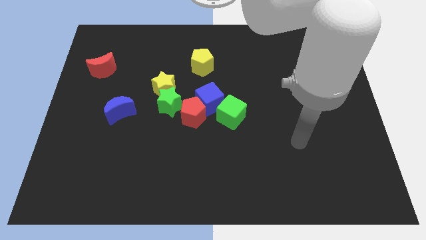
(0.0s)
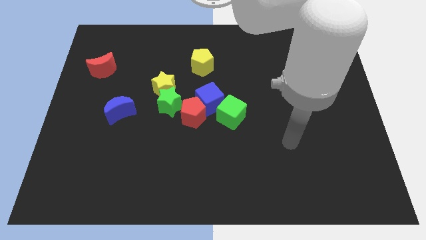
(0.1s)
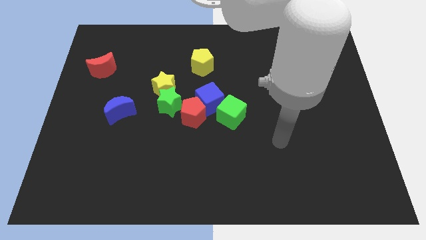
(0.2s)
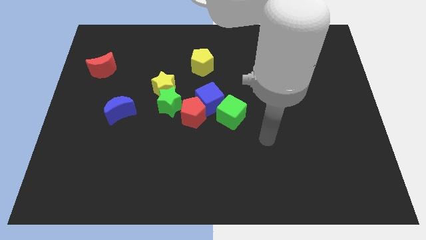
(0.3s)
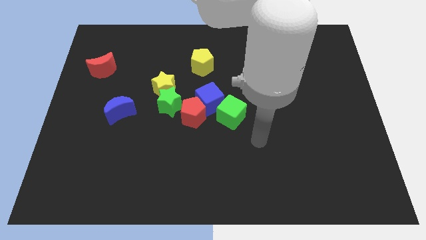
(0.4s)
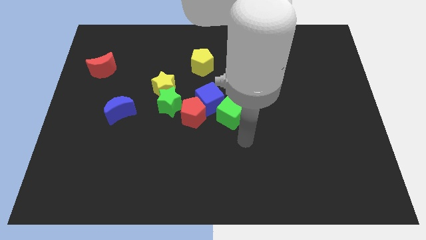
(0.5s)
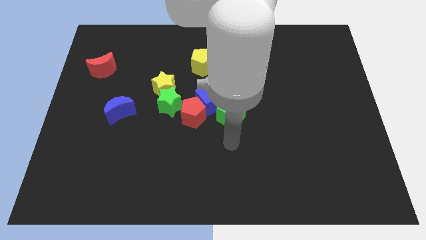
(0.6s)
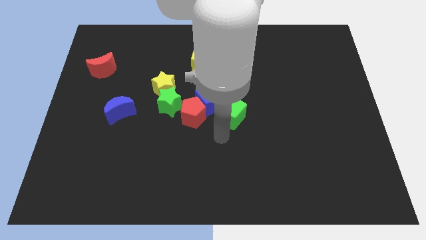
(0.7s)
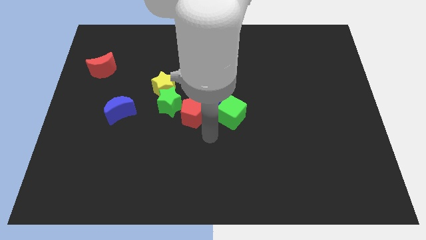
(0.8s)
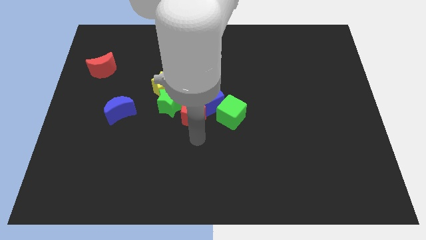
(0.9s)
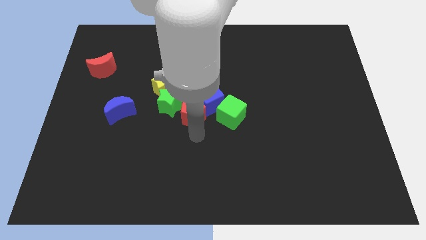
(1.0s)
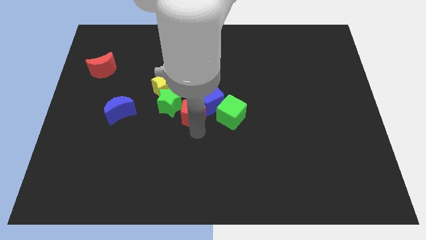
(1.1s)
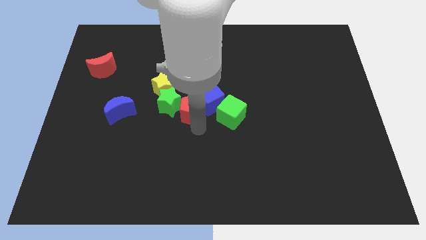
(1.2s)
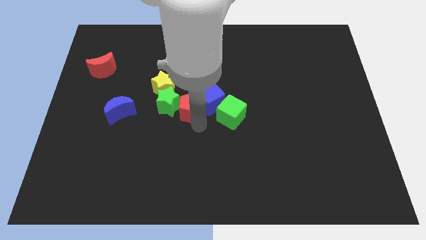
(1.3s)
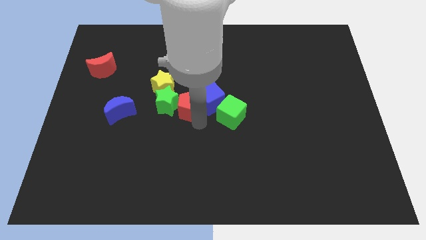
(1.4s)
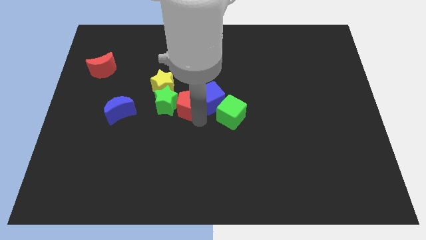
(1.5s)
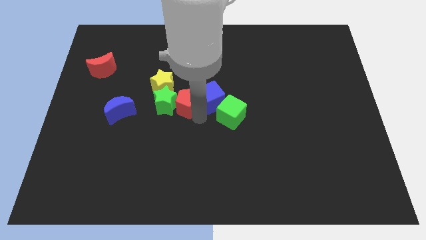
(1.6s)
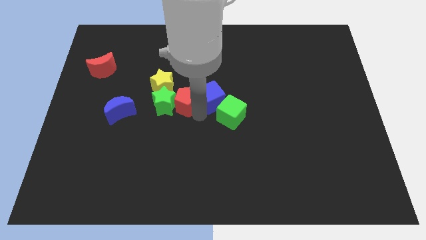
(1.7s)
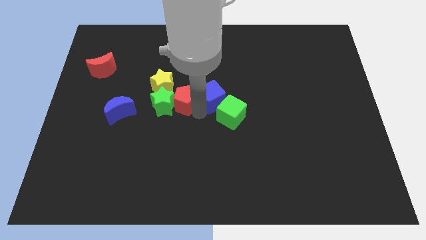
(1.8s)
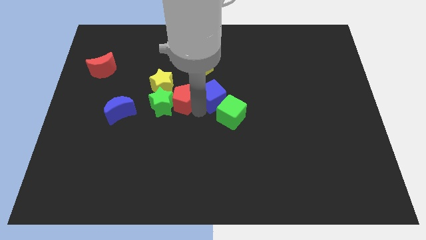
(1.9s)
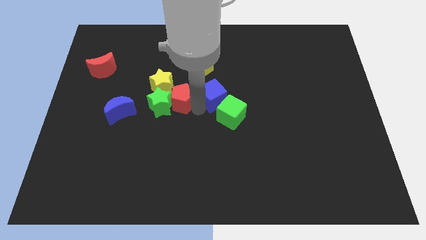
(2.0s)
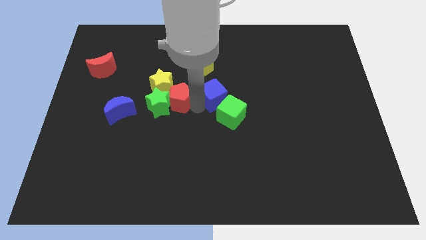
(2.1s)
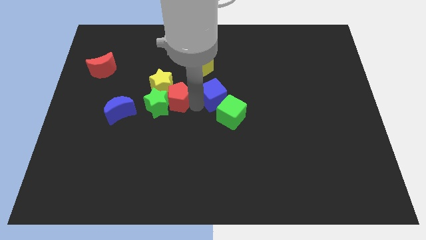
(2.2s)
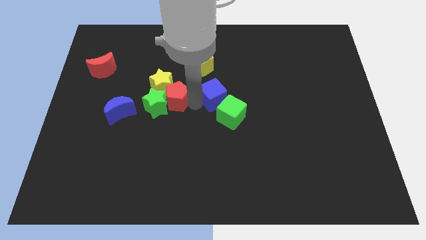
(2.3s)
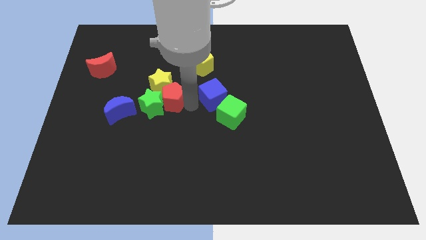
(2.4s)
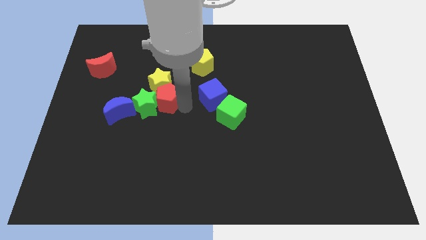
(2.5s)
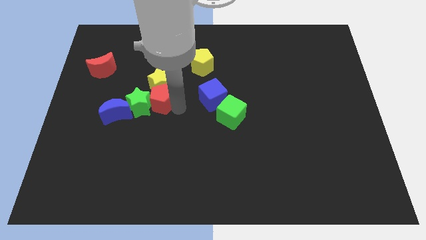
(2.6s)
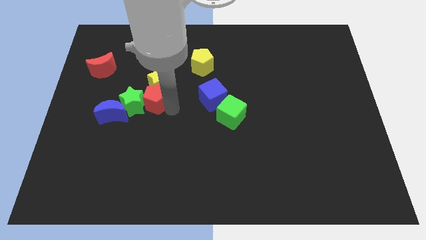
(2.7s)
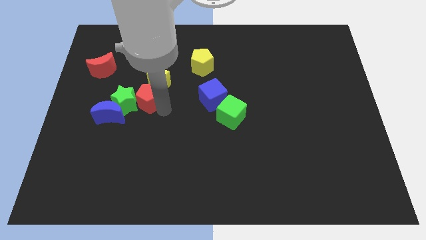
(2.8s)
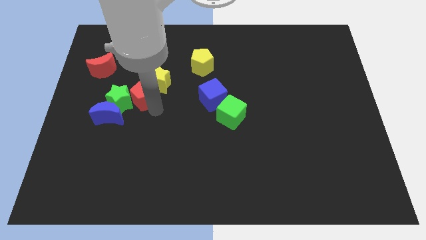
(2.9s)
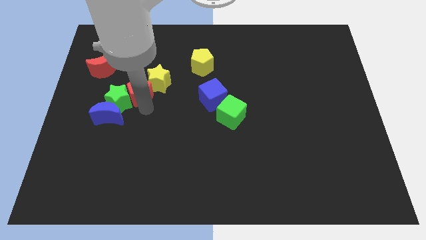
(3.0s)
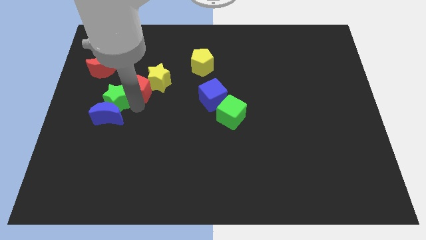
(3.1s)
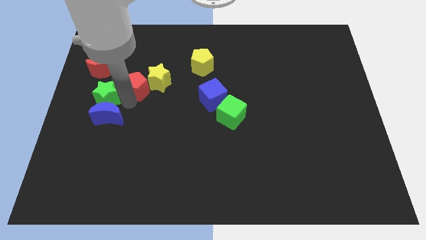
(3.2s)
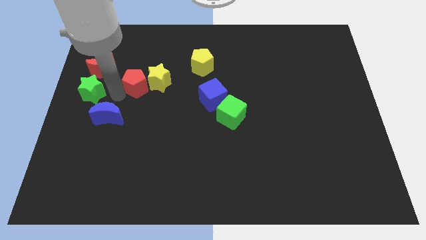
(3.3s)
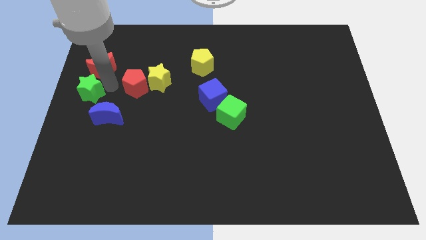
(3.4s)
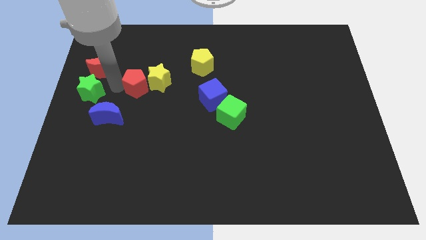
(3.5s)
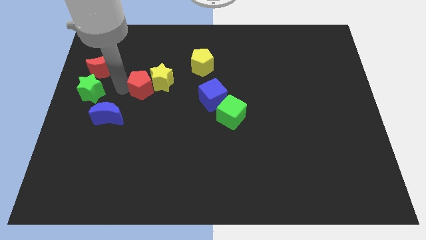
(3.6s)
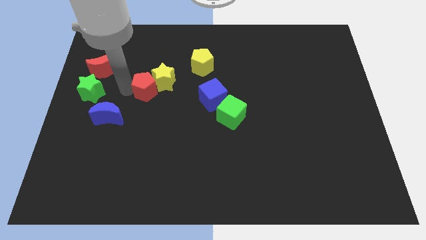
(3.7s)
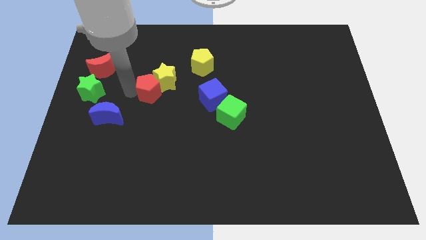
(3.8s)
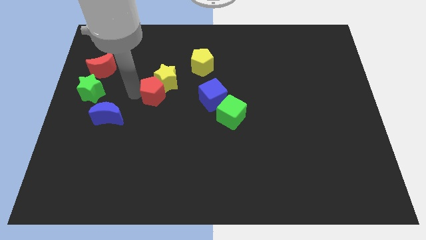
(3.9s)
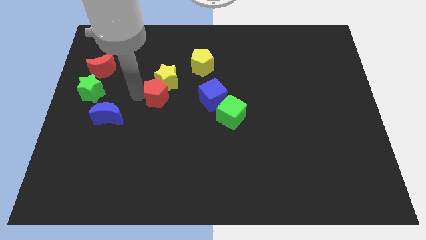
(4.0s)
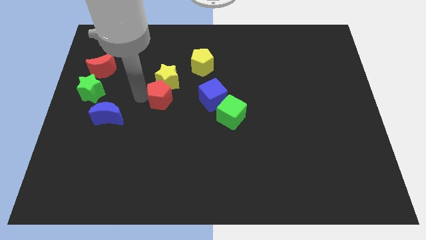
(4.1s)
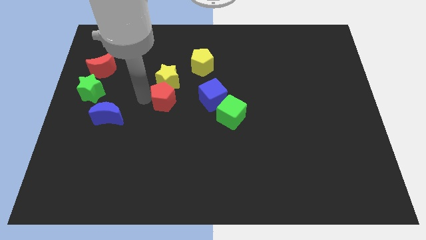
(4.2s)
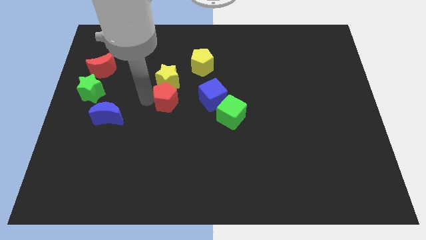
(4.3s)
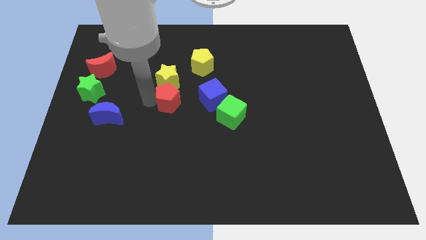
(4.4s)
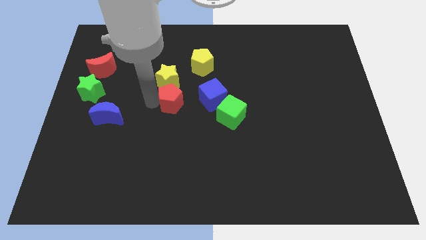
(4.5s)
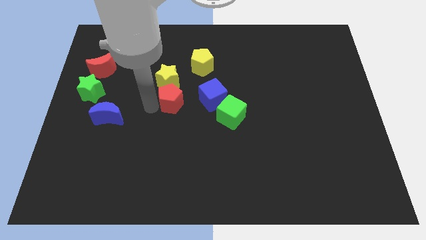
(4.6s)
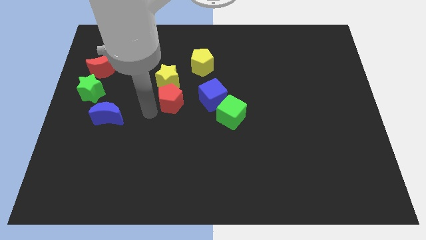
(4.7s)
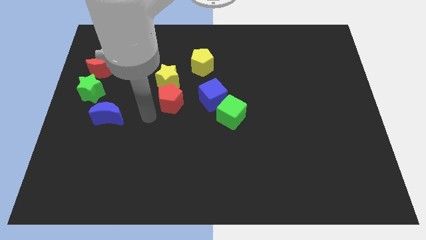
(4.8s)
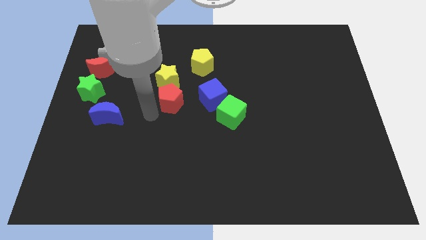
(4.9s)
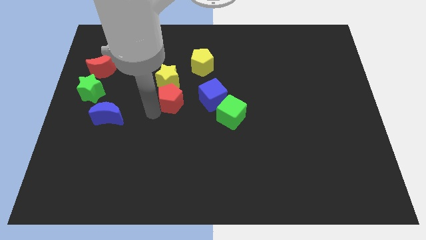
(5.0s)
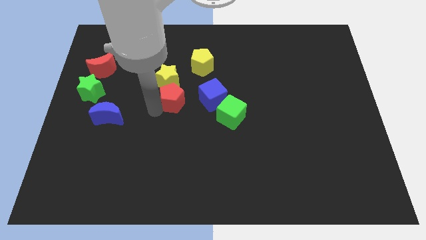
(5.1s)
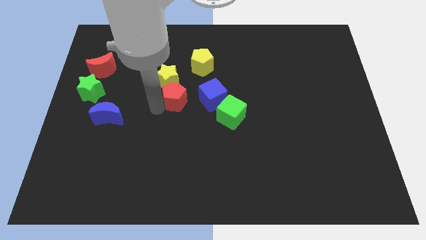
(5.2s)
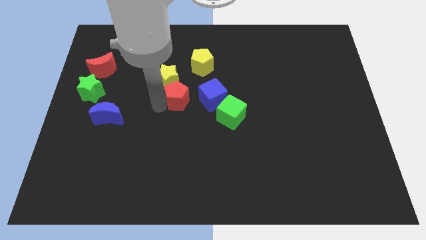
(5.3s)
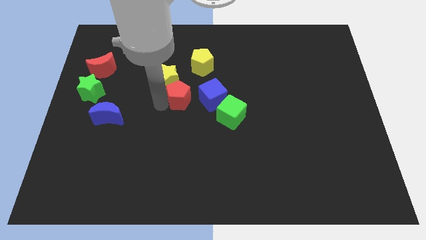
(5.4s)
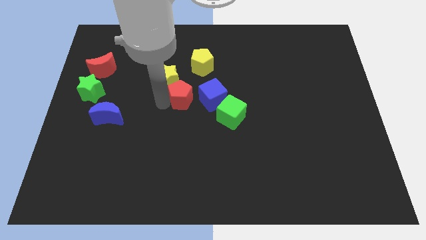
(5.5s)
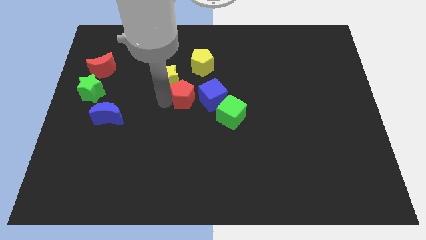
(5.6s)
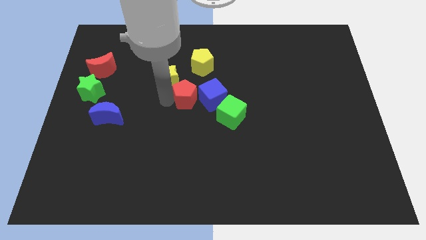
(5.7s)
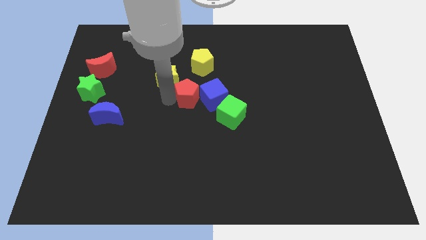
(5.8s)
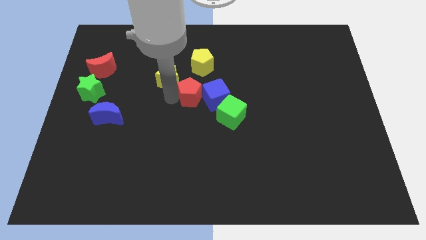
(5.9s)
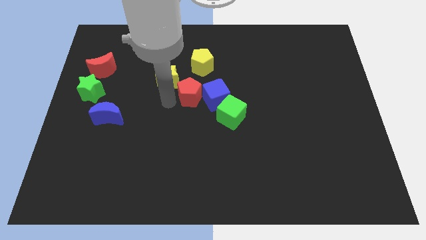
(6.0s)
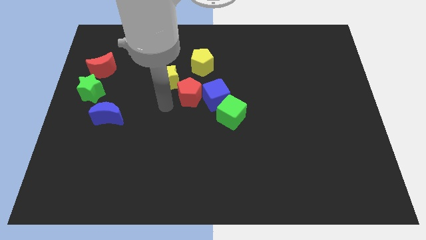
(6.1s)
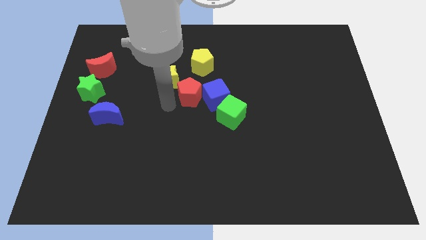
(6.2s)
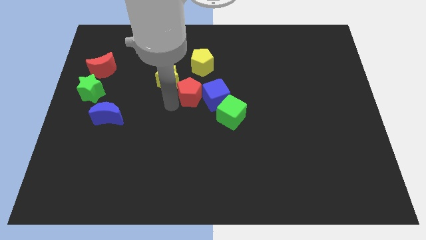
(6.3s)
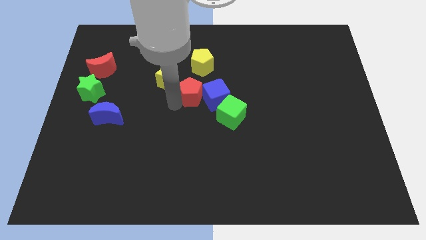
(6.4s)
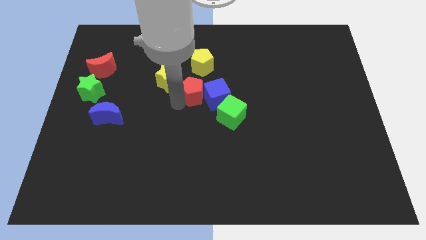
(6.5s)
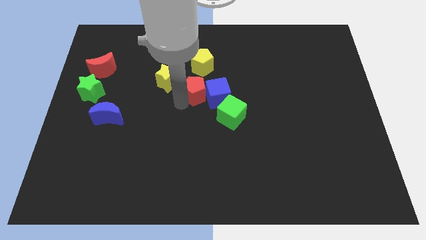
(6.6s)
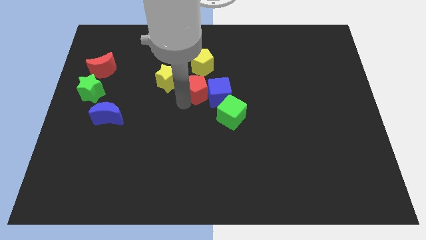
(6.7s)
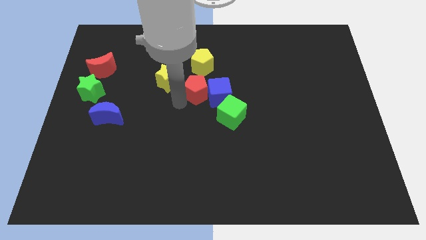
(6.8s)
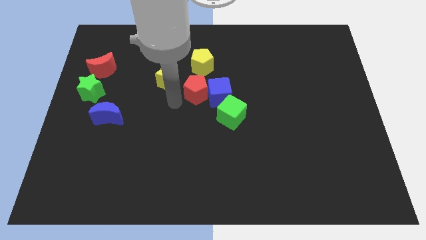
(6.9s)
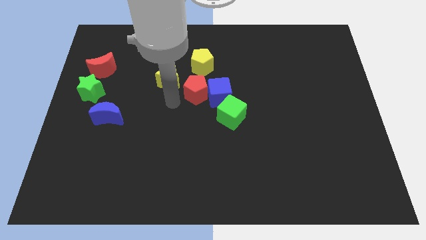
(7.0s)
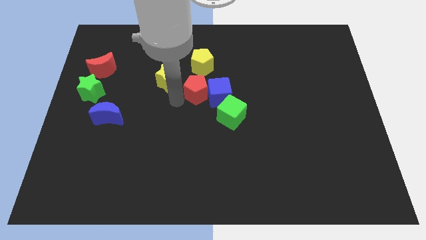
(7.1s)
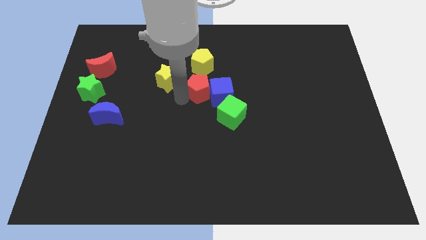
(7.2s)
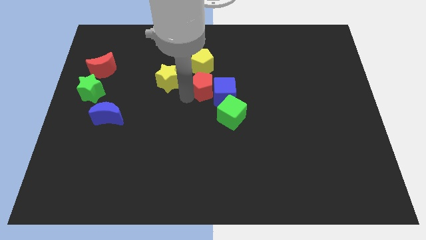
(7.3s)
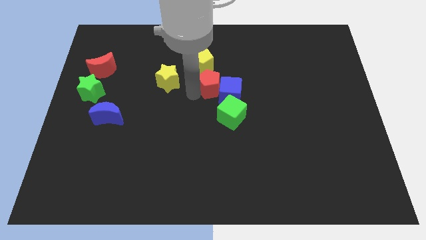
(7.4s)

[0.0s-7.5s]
push the red pentagon slightly upwards and to the right diagonally

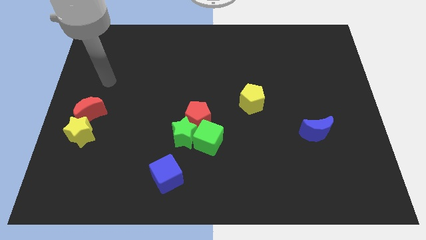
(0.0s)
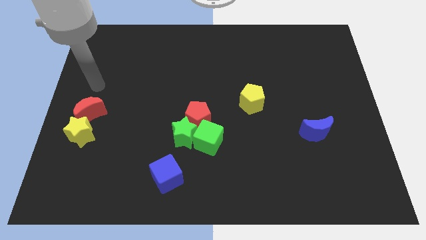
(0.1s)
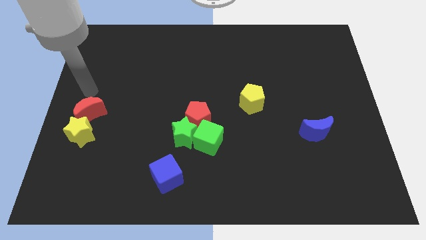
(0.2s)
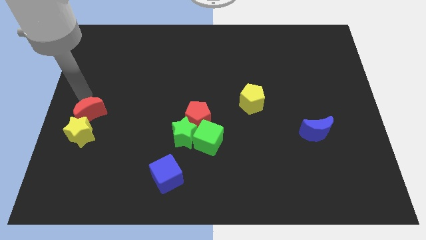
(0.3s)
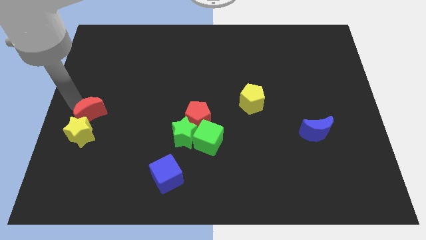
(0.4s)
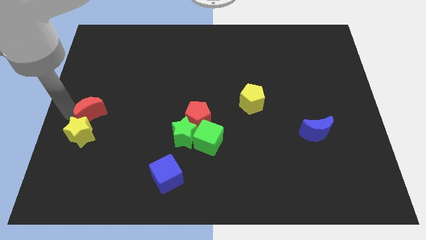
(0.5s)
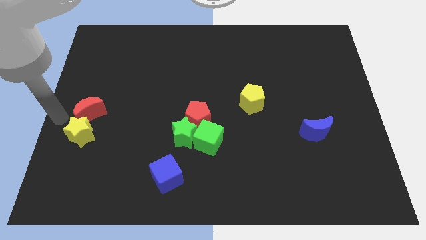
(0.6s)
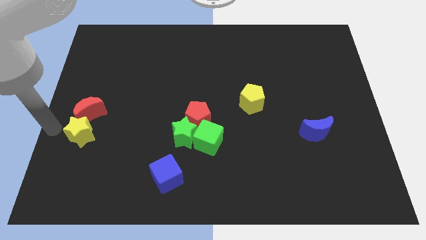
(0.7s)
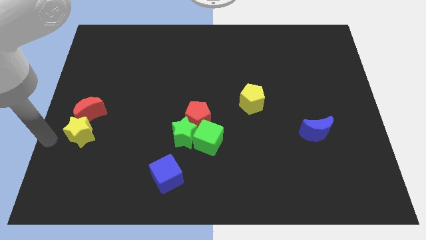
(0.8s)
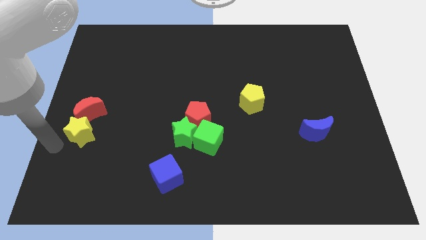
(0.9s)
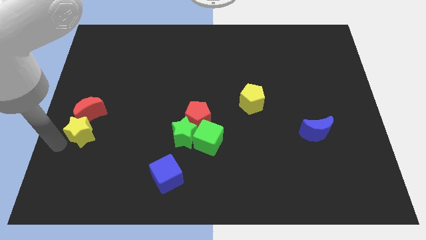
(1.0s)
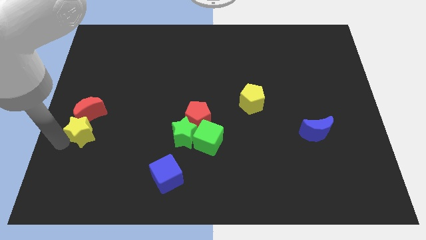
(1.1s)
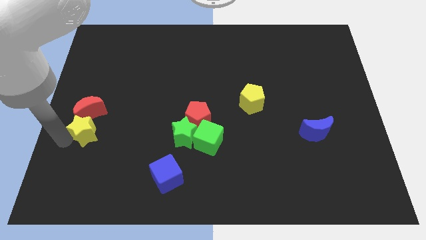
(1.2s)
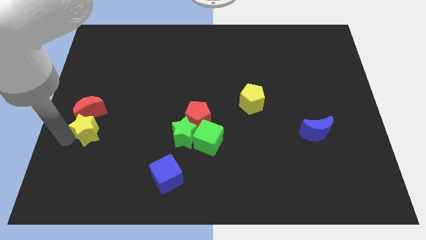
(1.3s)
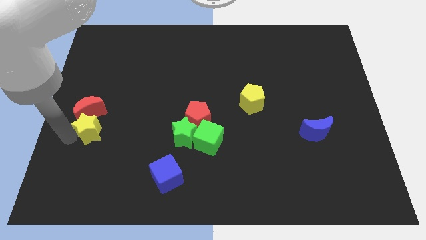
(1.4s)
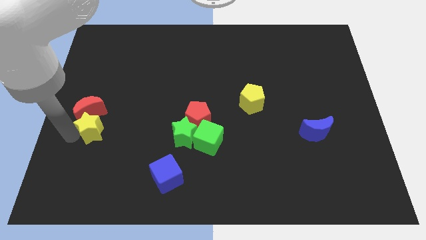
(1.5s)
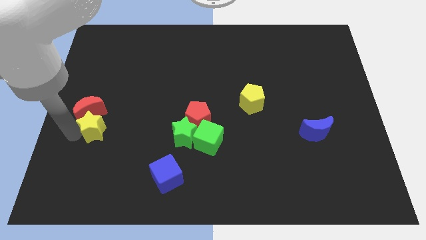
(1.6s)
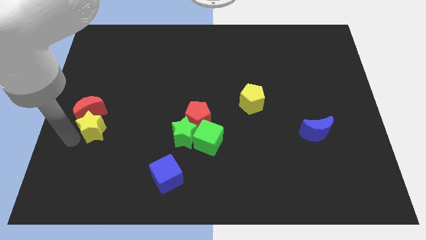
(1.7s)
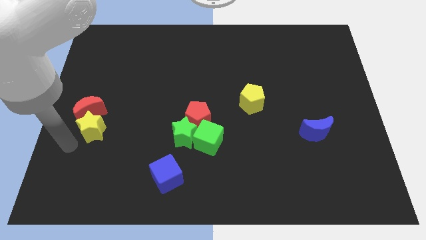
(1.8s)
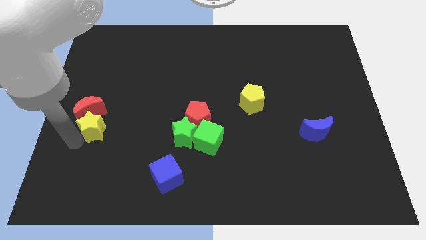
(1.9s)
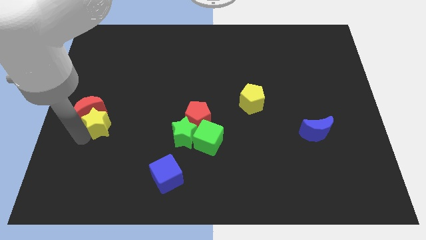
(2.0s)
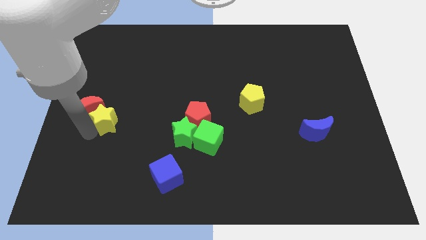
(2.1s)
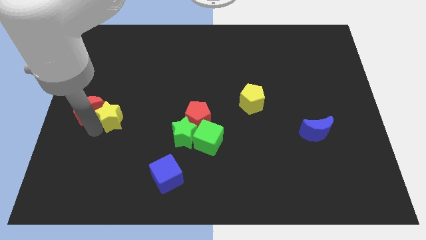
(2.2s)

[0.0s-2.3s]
slightly move the yellow star upwards and then right
